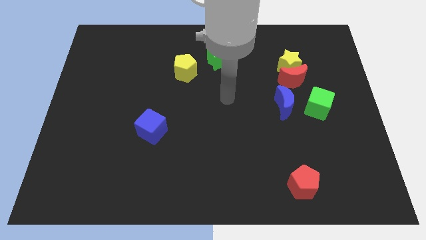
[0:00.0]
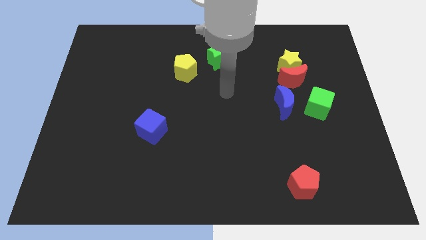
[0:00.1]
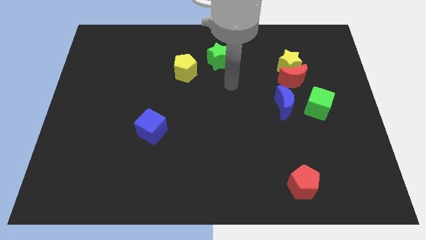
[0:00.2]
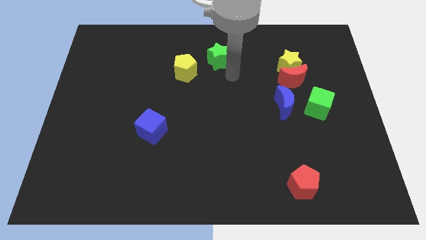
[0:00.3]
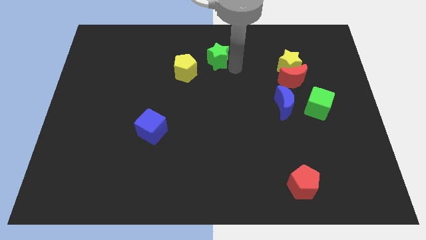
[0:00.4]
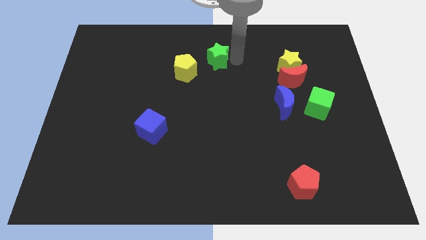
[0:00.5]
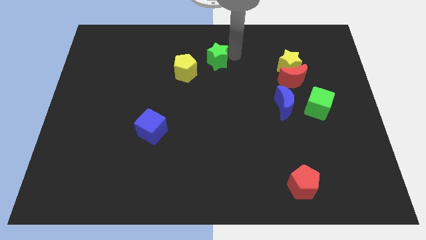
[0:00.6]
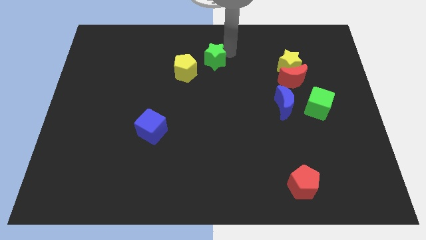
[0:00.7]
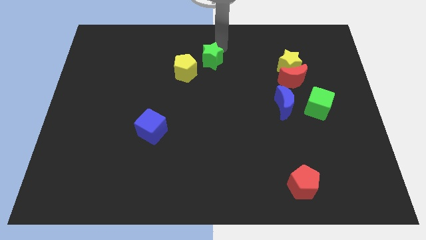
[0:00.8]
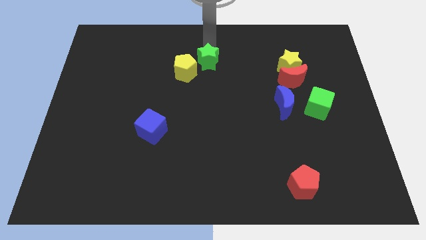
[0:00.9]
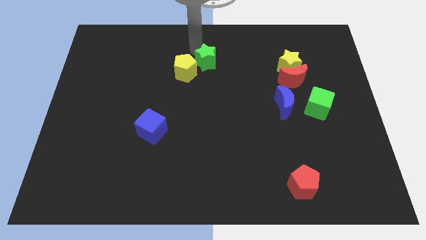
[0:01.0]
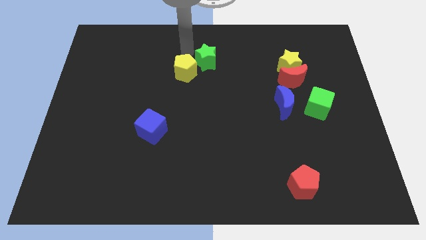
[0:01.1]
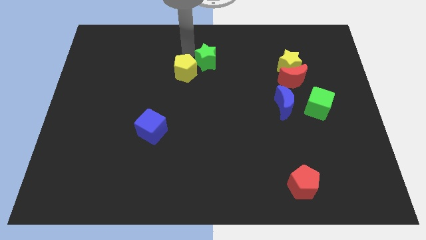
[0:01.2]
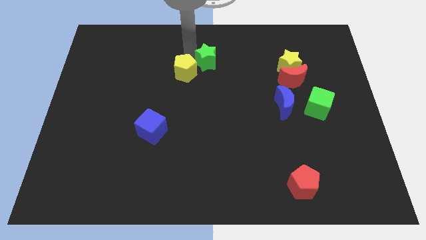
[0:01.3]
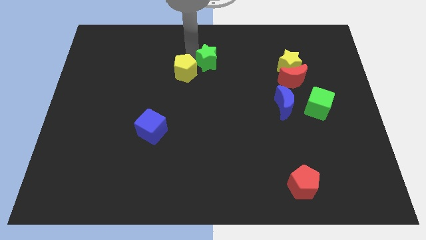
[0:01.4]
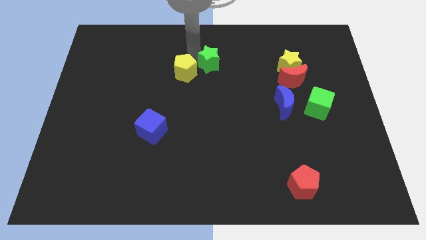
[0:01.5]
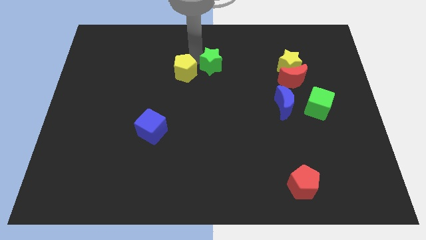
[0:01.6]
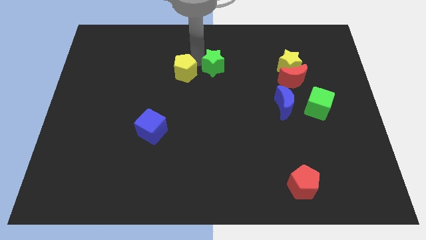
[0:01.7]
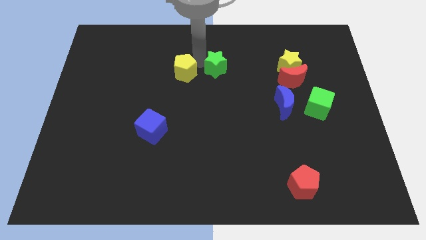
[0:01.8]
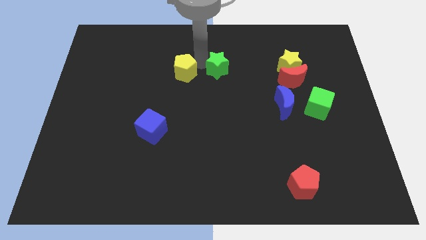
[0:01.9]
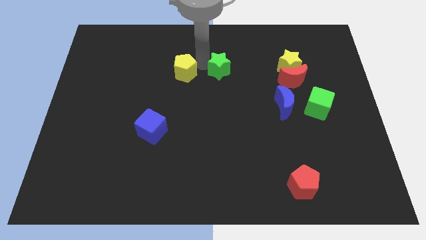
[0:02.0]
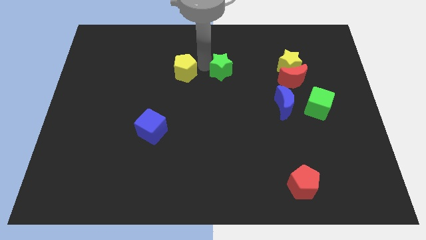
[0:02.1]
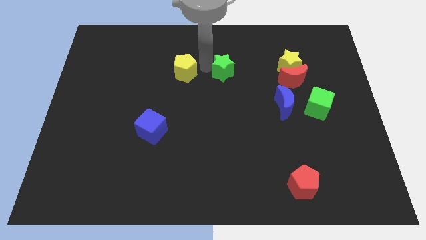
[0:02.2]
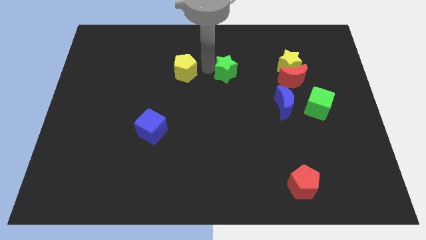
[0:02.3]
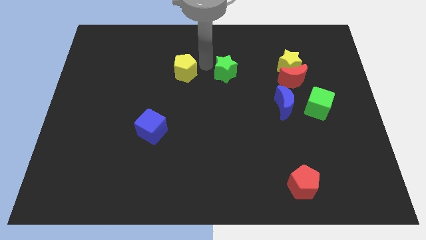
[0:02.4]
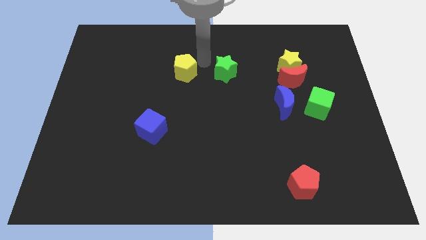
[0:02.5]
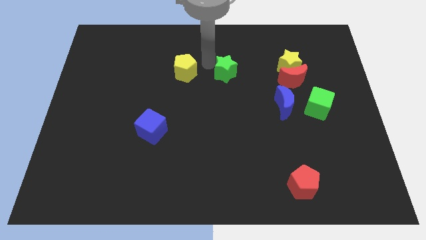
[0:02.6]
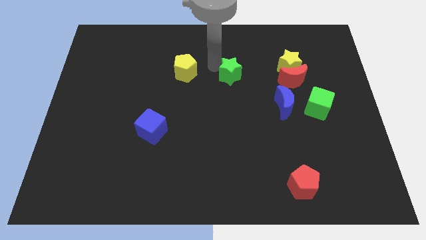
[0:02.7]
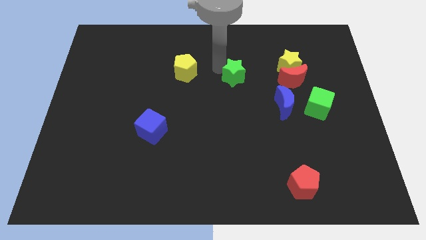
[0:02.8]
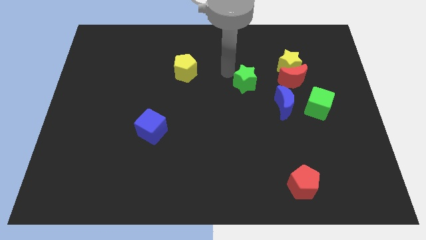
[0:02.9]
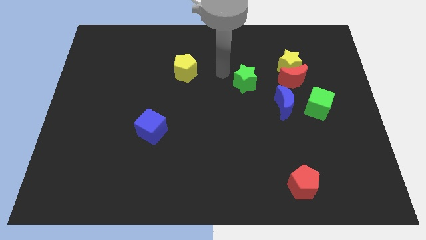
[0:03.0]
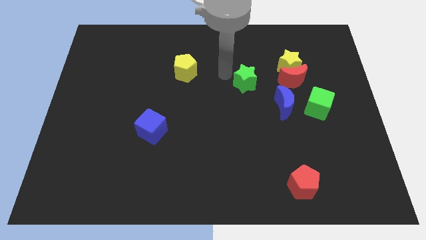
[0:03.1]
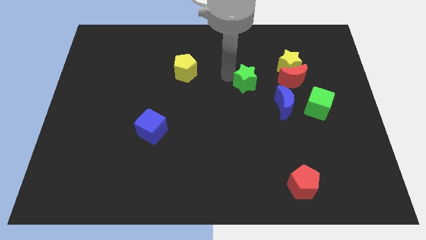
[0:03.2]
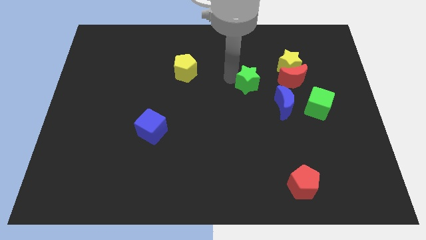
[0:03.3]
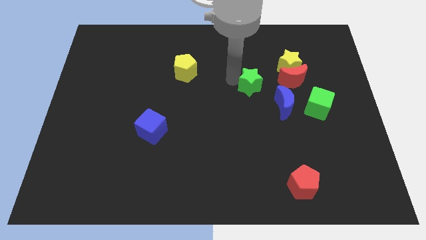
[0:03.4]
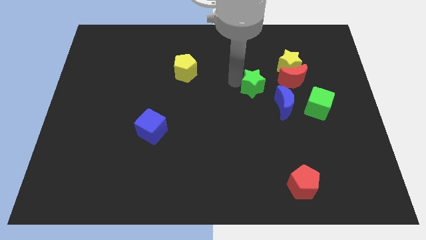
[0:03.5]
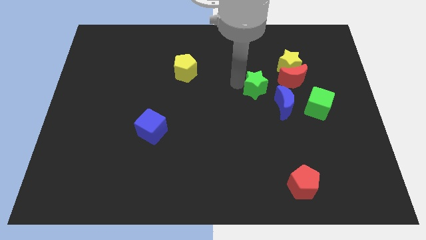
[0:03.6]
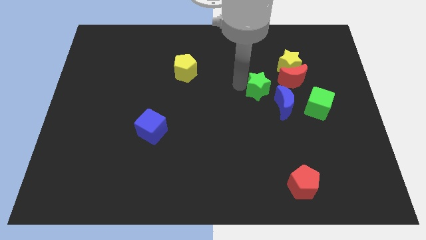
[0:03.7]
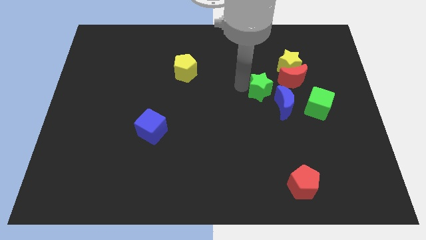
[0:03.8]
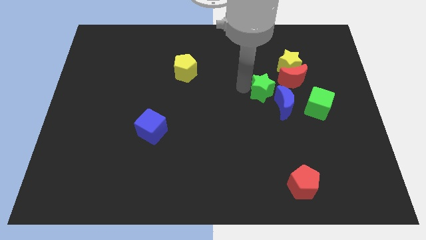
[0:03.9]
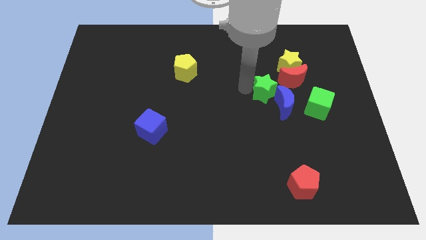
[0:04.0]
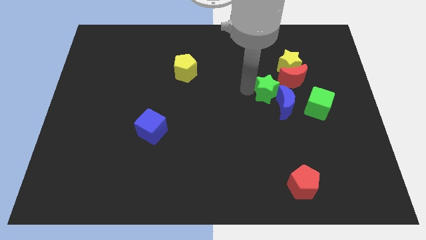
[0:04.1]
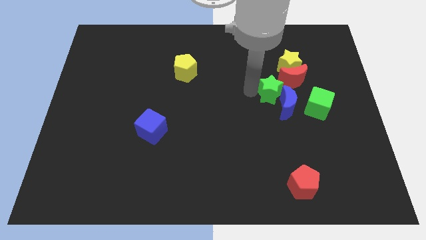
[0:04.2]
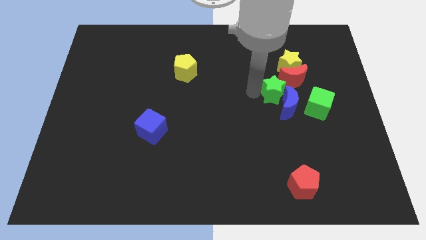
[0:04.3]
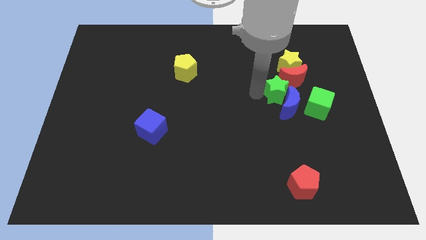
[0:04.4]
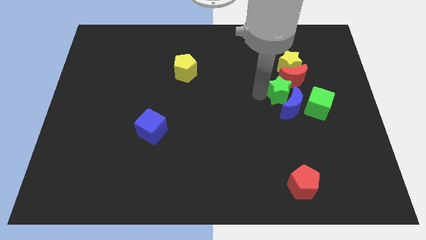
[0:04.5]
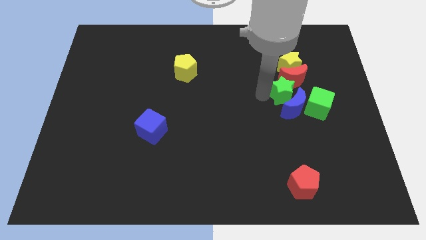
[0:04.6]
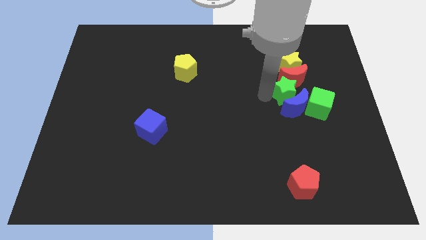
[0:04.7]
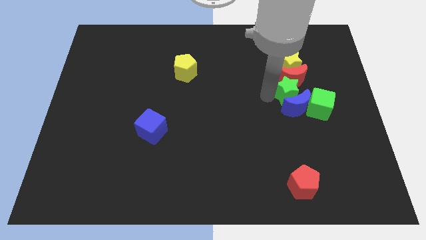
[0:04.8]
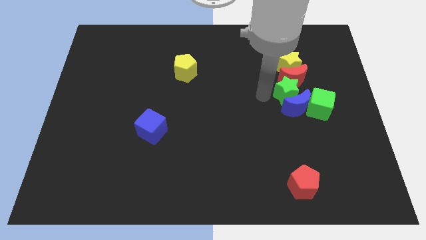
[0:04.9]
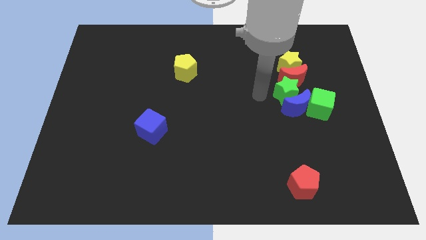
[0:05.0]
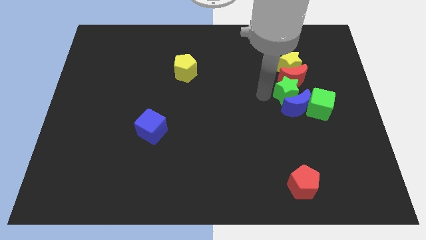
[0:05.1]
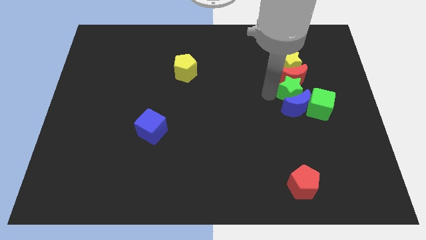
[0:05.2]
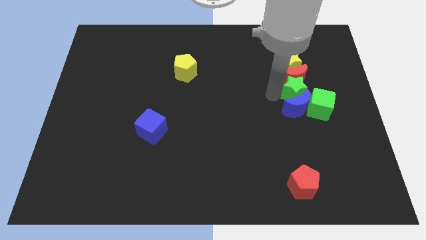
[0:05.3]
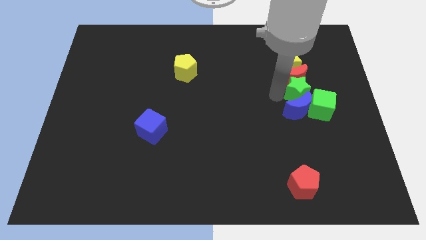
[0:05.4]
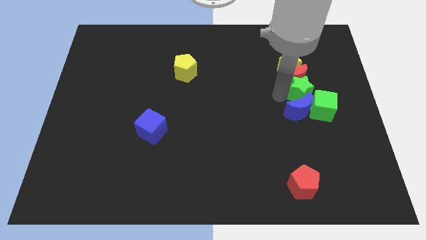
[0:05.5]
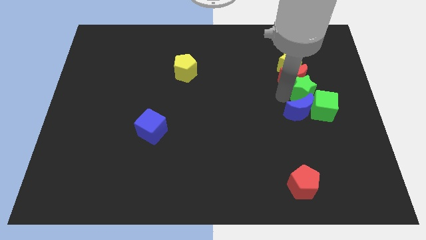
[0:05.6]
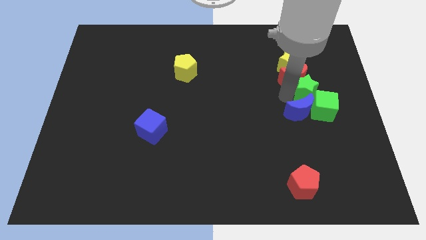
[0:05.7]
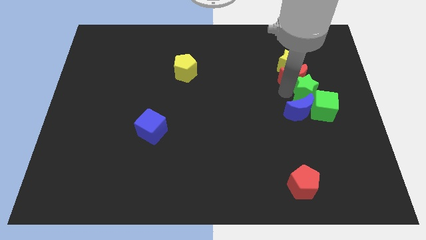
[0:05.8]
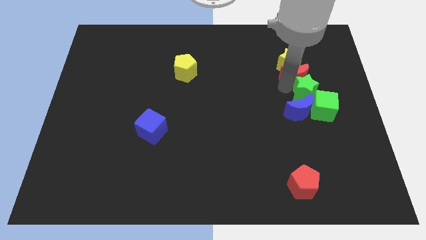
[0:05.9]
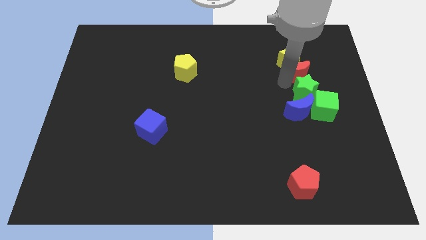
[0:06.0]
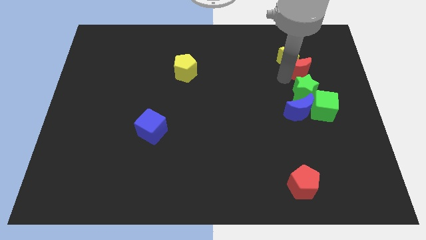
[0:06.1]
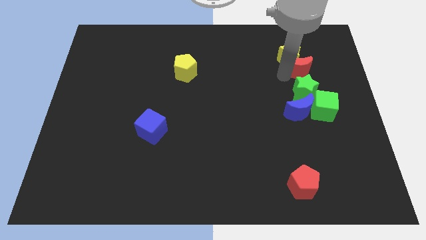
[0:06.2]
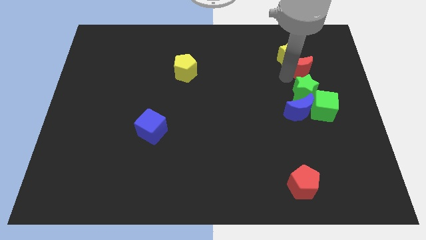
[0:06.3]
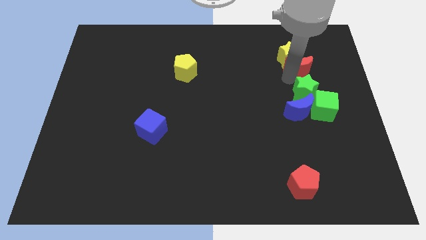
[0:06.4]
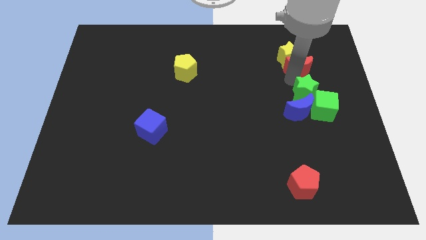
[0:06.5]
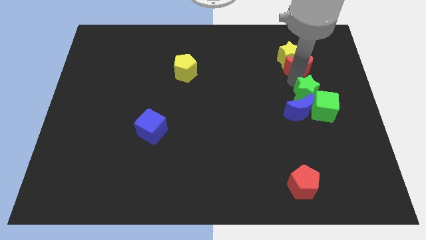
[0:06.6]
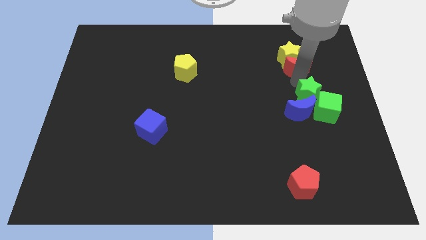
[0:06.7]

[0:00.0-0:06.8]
push the green star towards the green cube

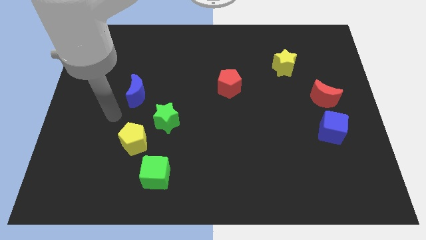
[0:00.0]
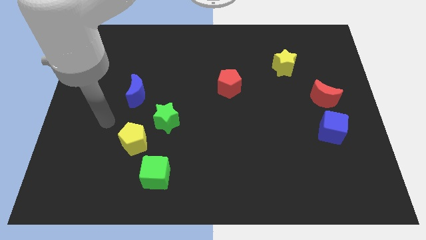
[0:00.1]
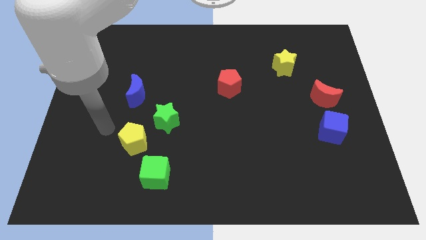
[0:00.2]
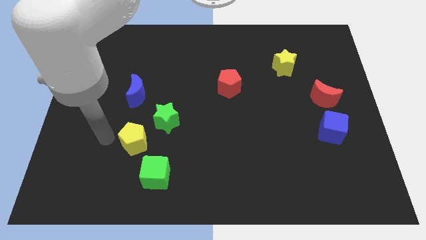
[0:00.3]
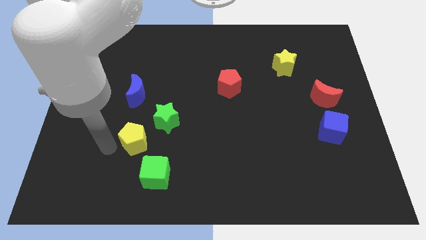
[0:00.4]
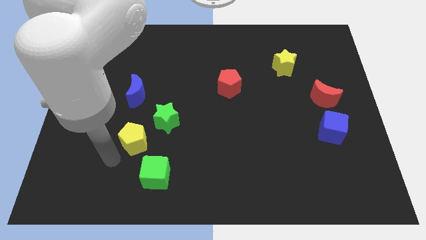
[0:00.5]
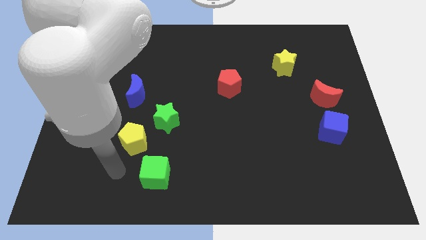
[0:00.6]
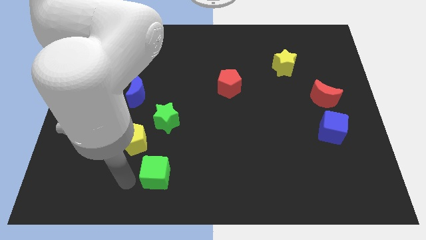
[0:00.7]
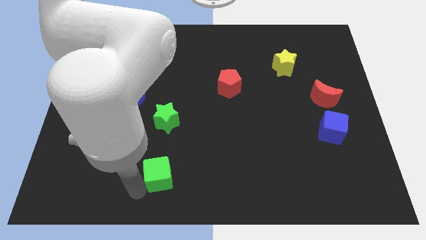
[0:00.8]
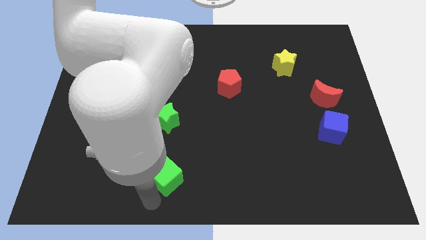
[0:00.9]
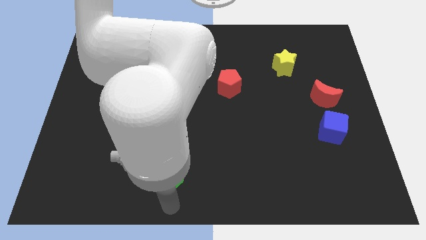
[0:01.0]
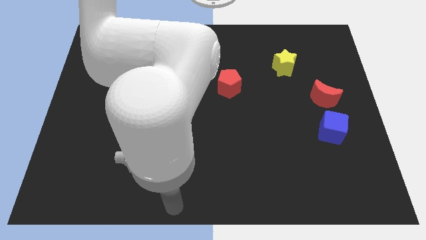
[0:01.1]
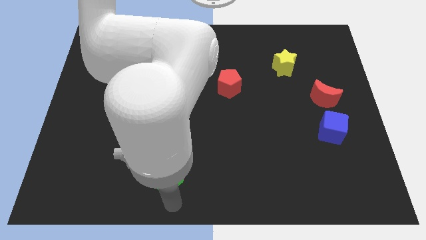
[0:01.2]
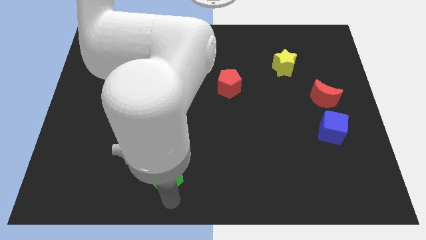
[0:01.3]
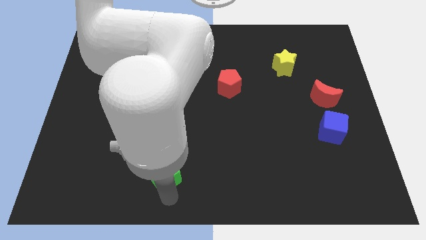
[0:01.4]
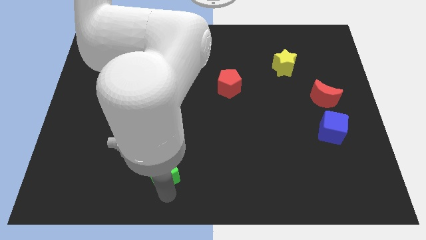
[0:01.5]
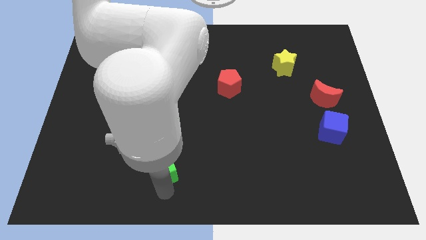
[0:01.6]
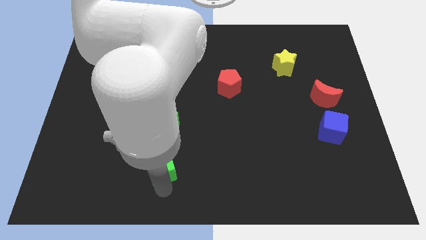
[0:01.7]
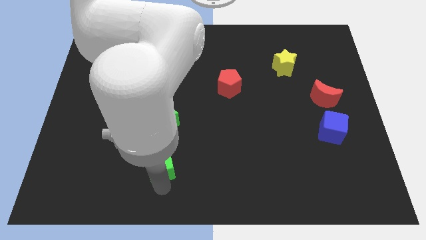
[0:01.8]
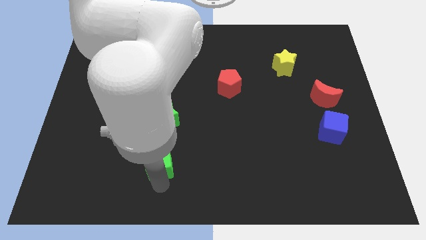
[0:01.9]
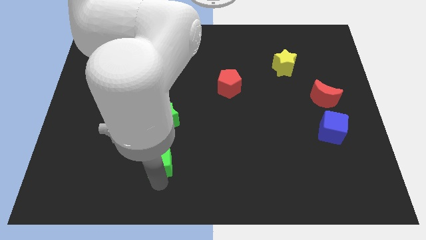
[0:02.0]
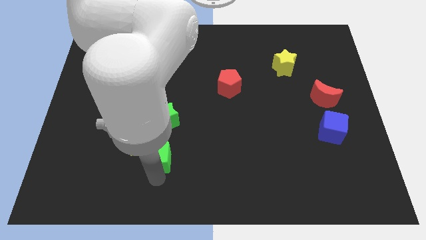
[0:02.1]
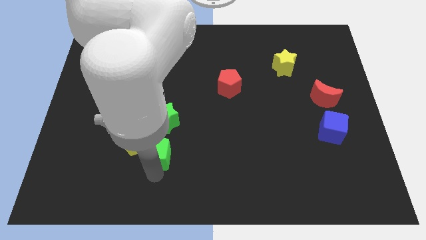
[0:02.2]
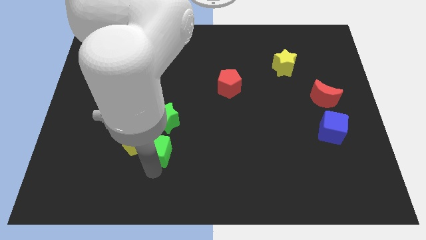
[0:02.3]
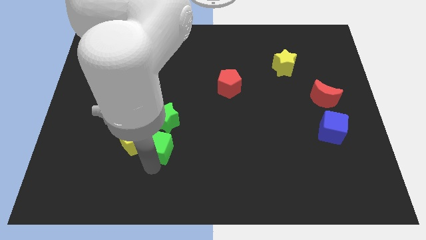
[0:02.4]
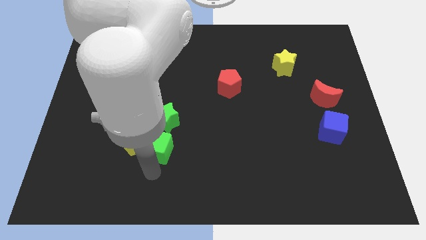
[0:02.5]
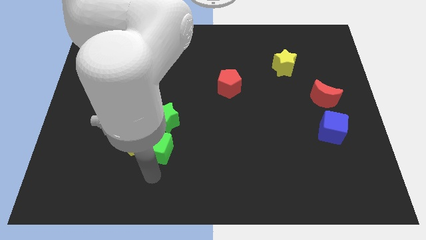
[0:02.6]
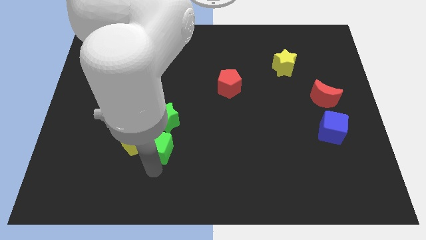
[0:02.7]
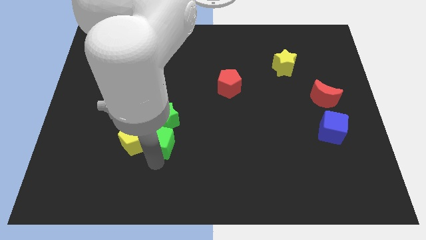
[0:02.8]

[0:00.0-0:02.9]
slide the green cube to the green star
